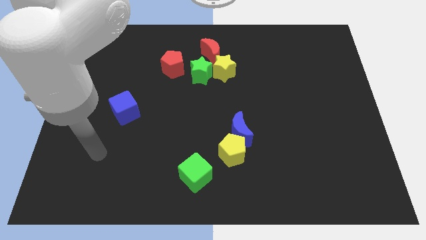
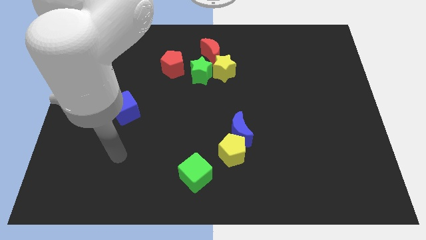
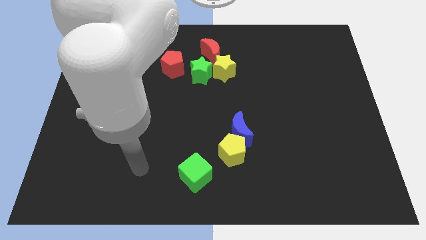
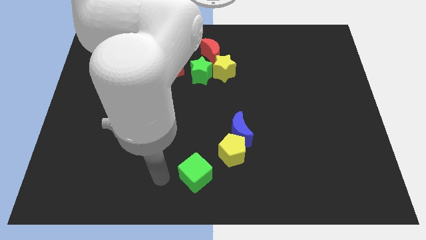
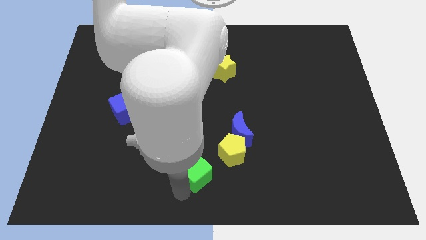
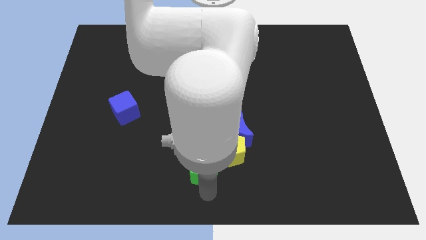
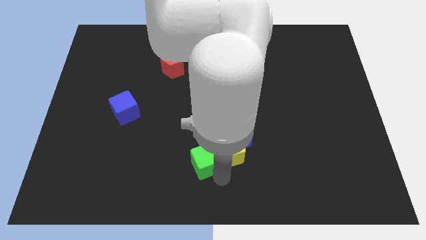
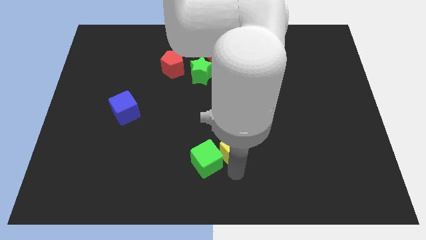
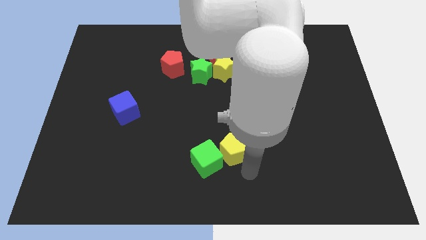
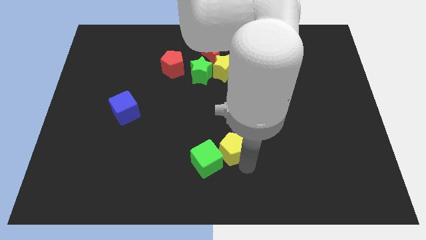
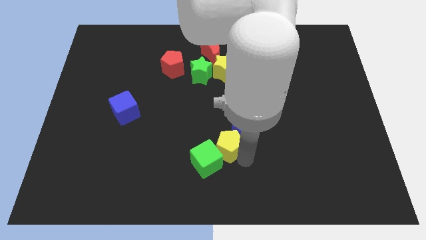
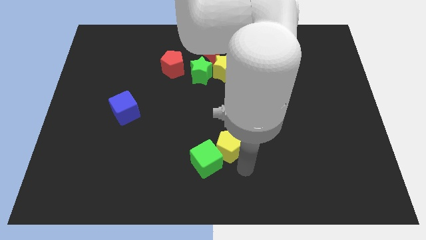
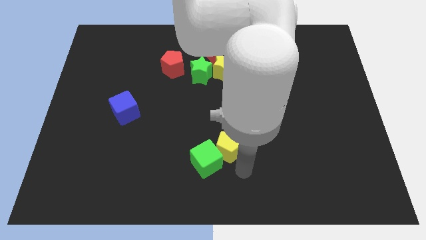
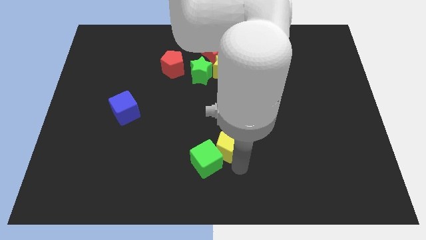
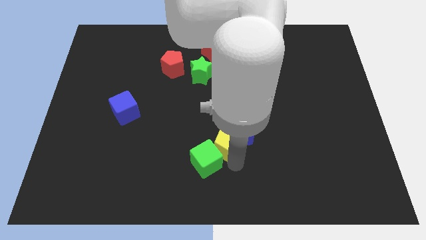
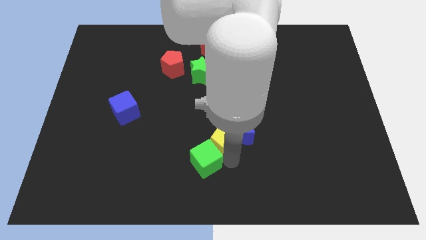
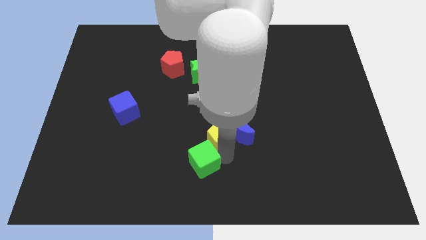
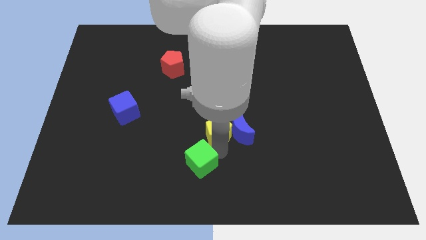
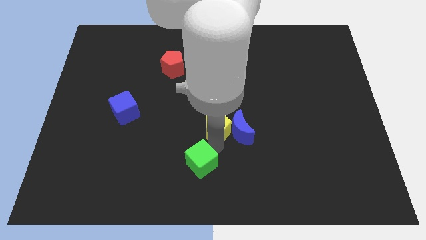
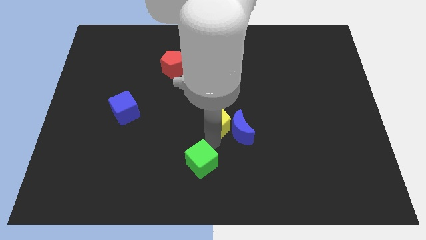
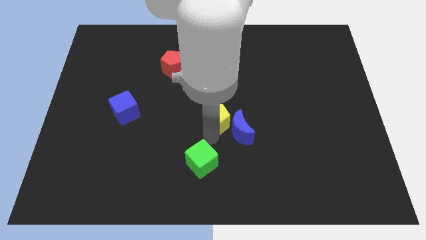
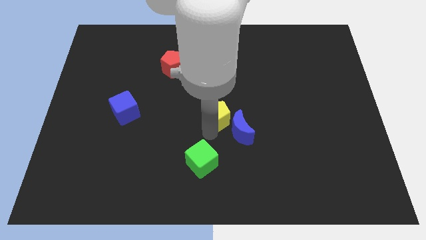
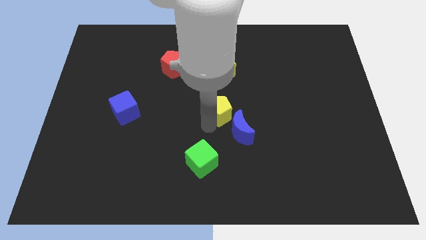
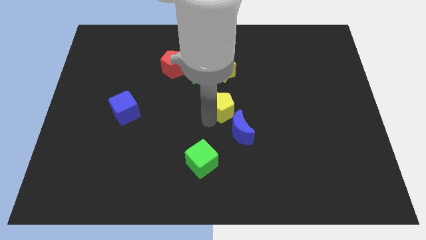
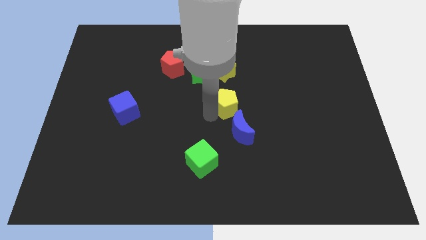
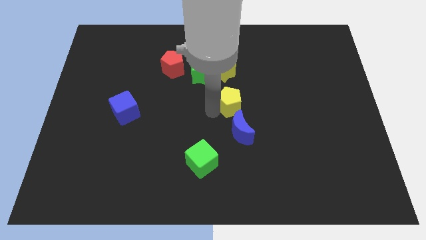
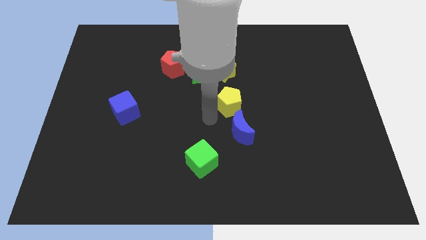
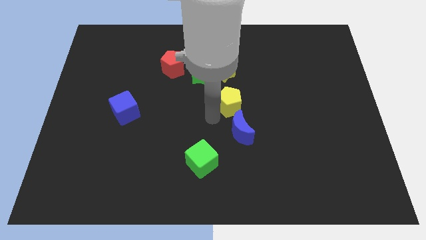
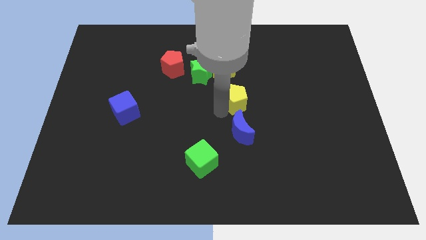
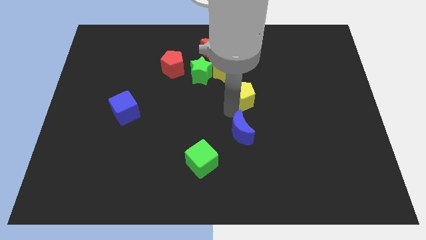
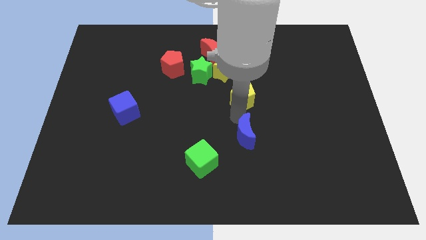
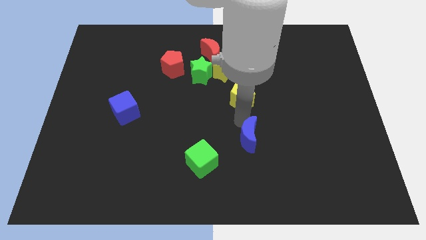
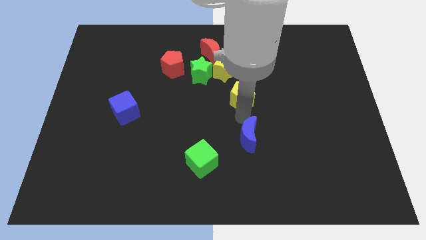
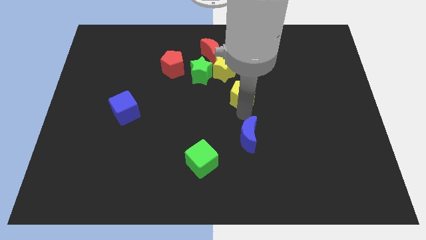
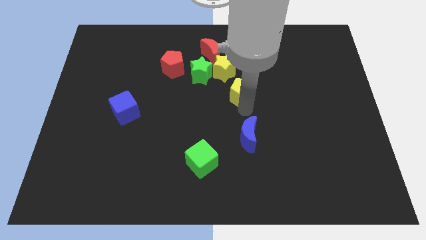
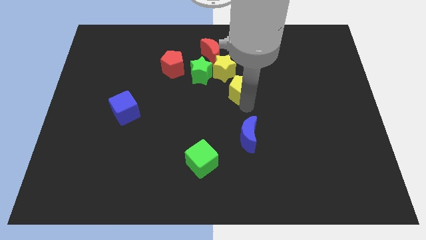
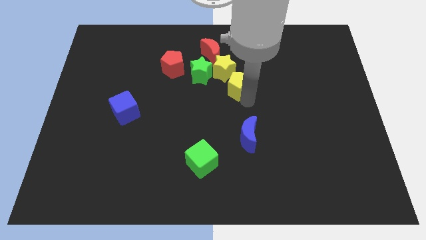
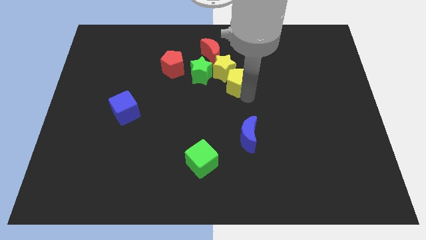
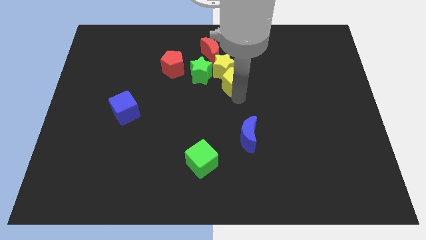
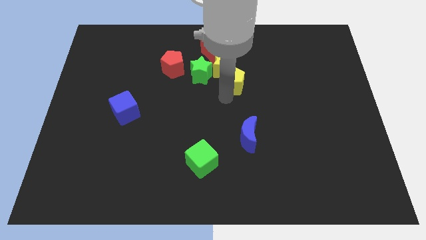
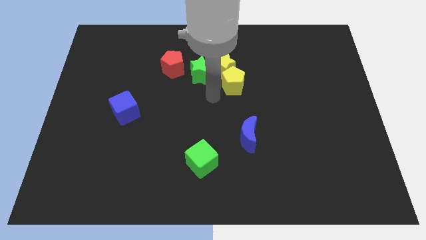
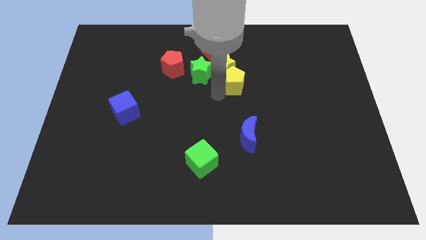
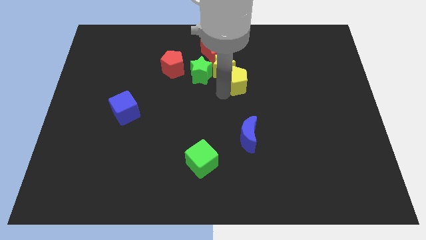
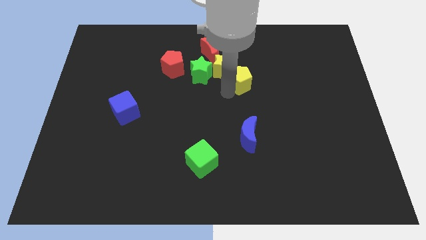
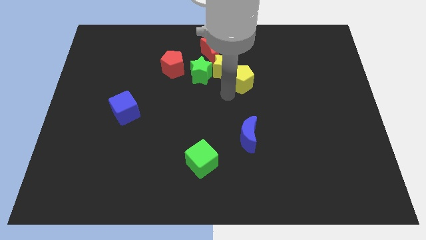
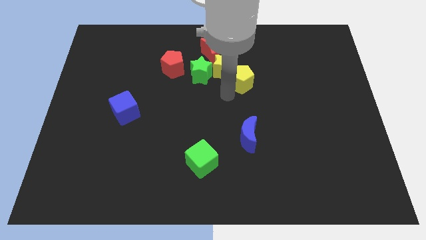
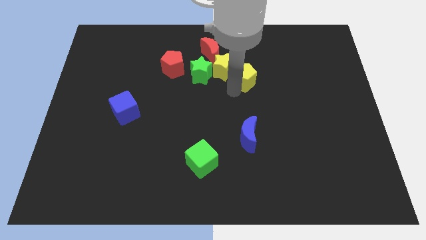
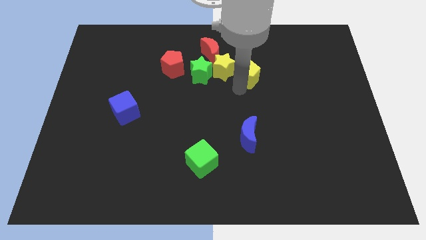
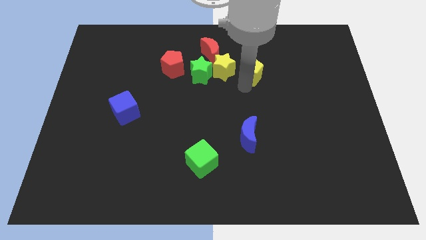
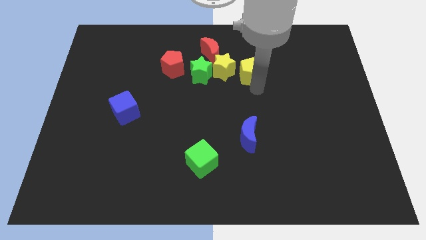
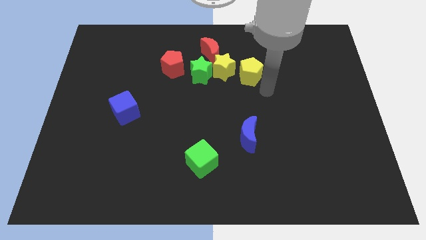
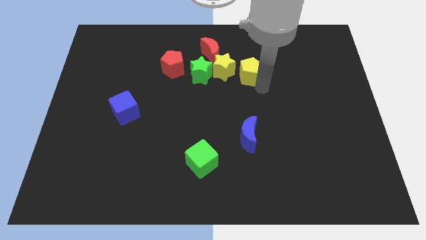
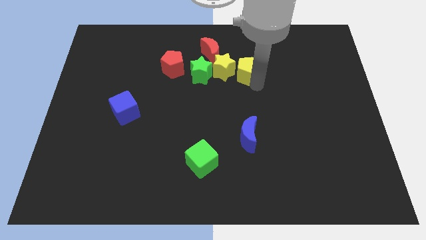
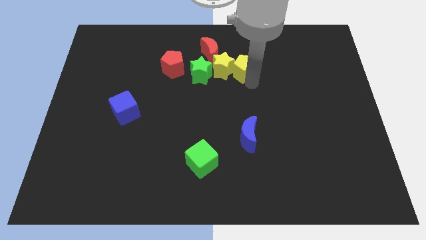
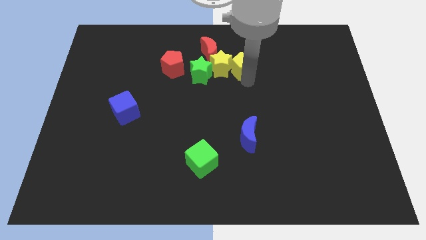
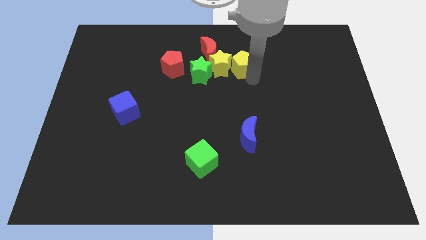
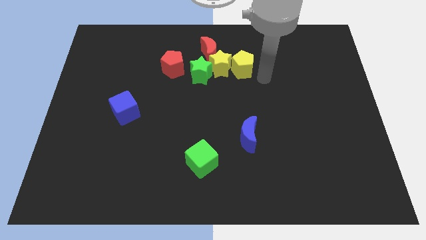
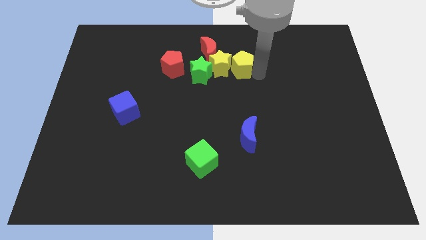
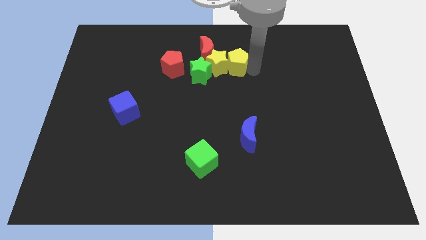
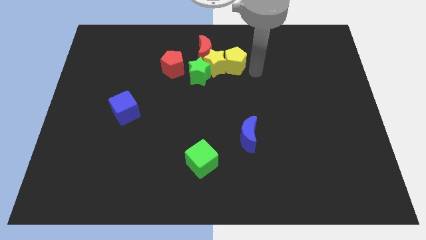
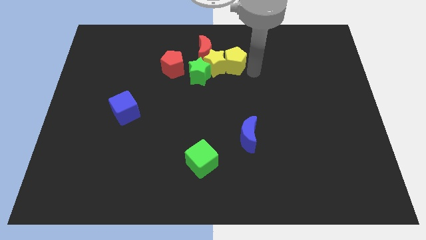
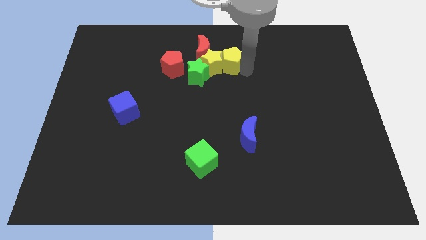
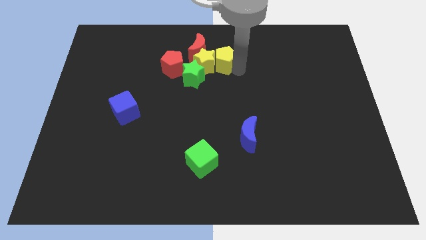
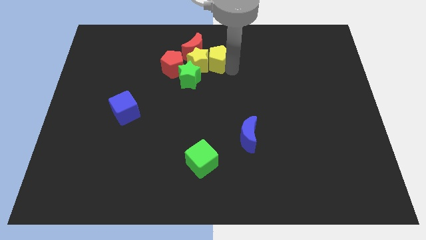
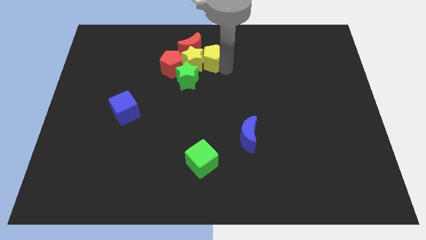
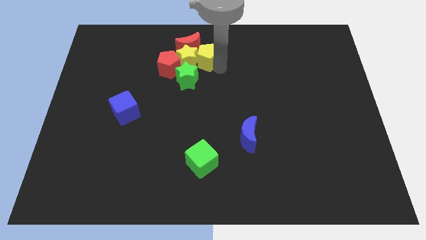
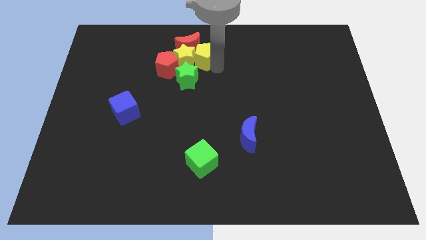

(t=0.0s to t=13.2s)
move the yellow pentagon towards the red moon

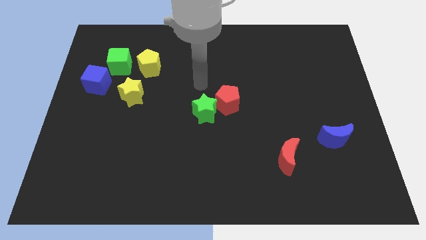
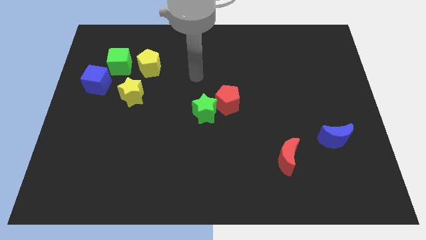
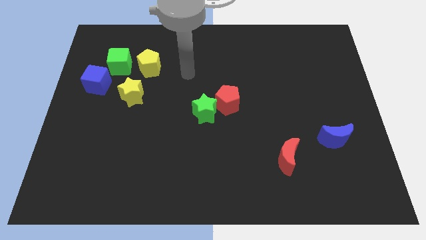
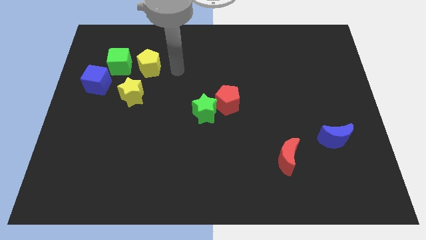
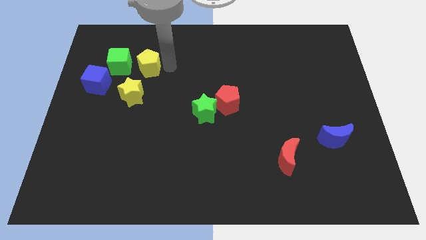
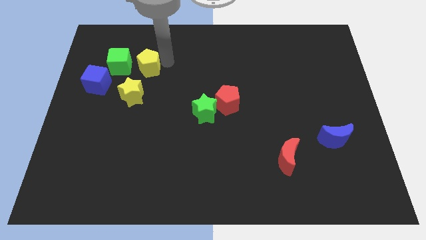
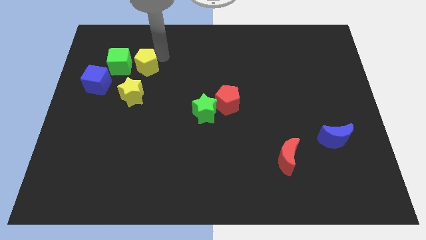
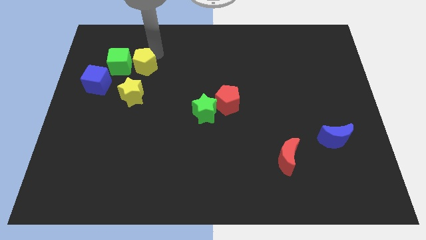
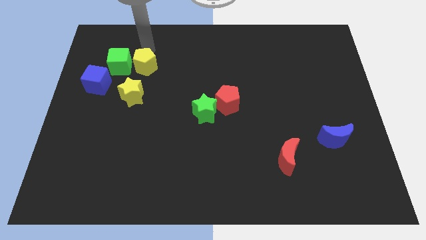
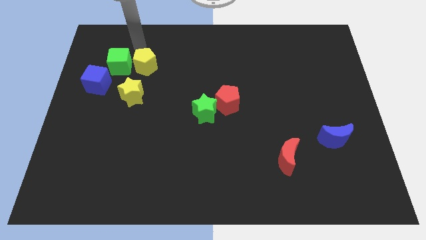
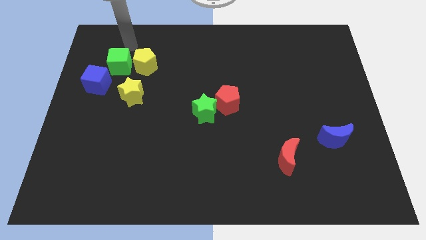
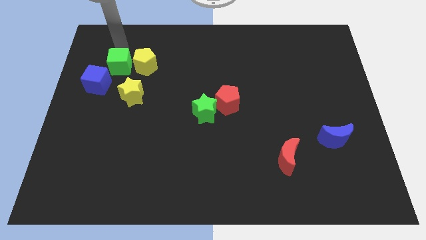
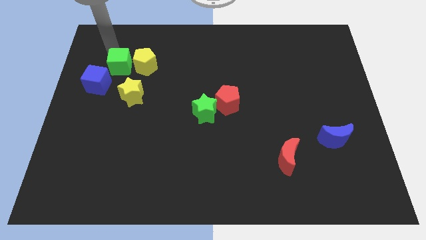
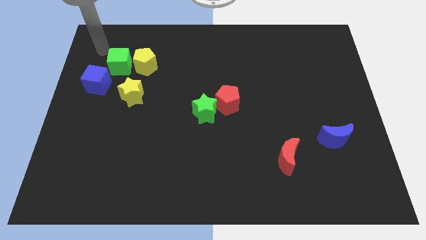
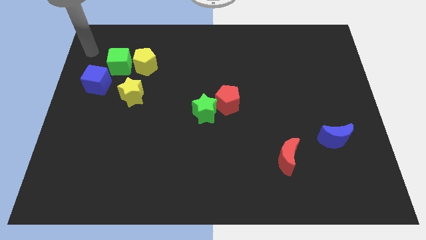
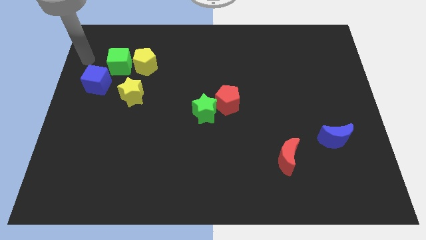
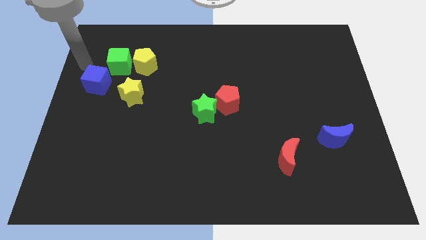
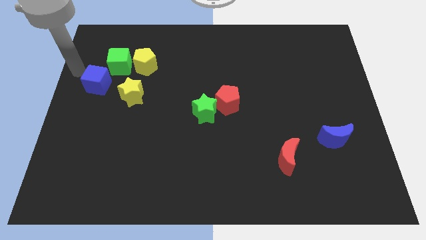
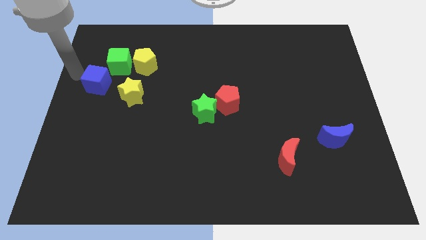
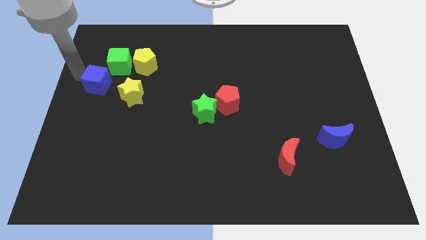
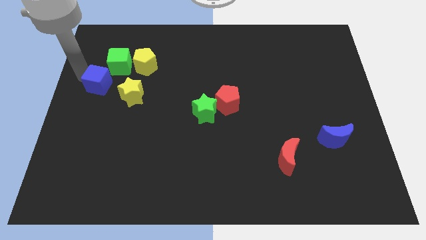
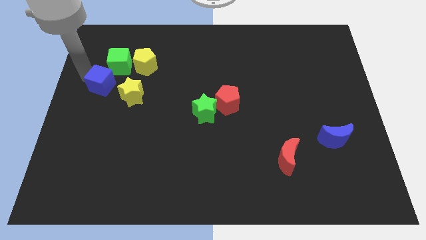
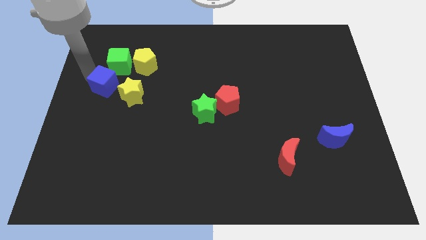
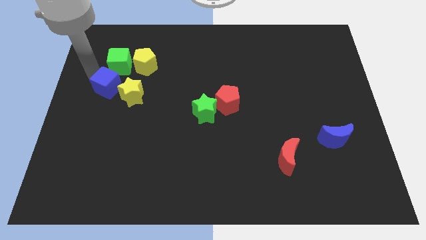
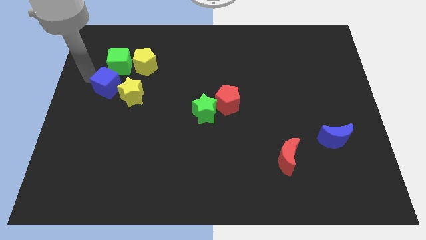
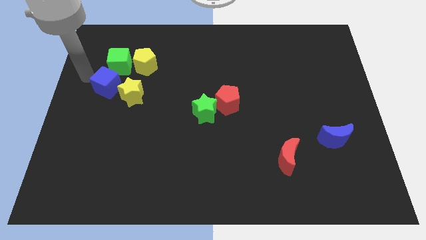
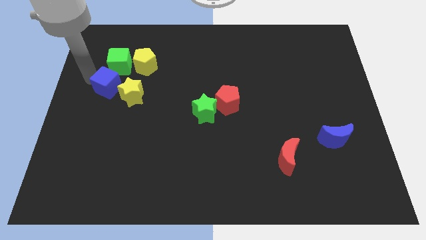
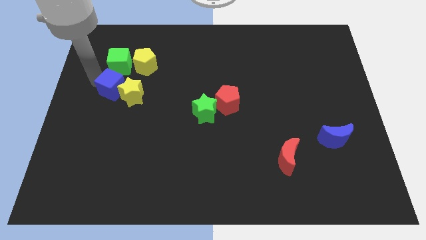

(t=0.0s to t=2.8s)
put the blue cube next to the yellow star
